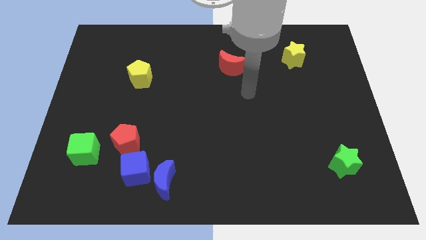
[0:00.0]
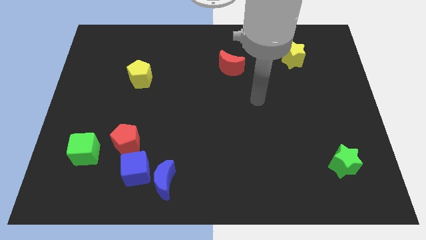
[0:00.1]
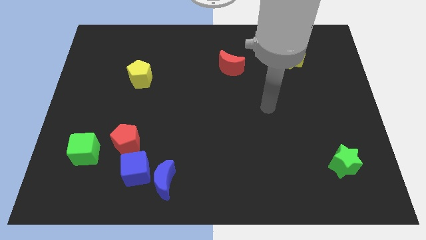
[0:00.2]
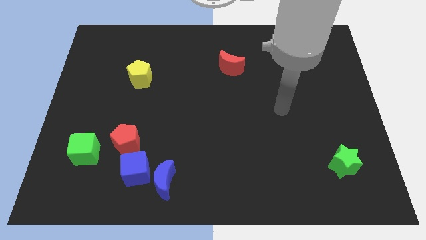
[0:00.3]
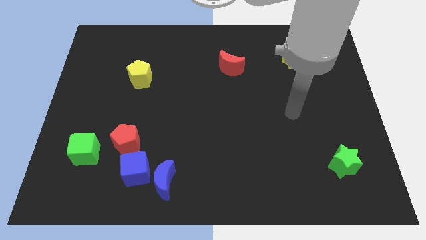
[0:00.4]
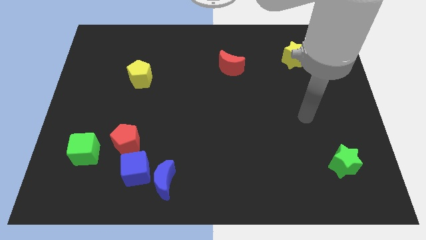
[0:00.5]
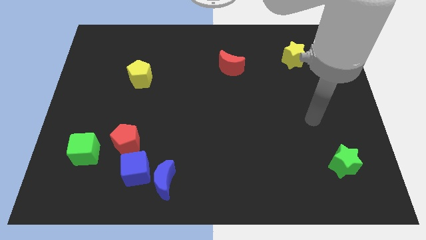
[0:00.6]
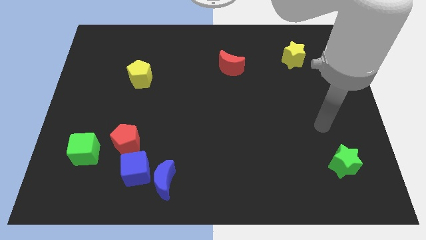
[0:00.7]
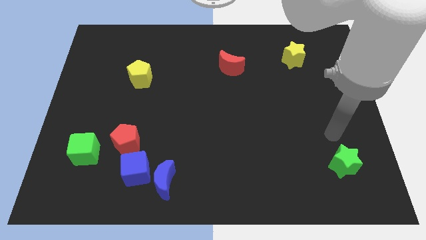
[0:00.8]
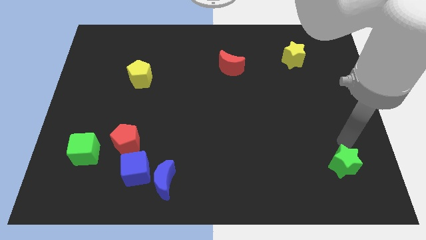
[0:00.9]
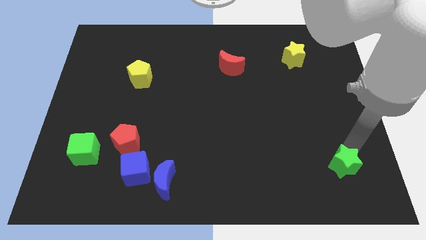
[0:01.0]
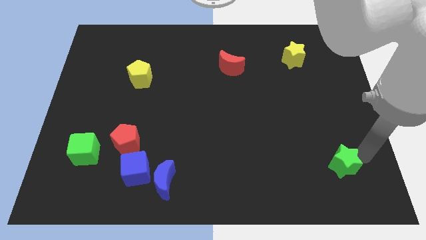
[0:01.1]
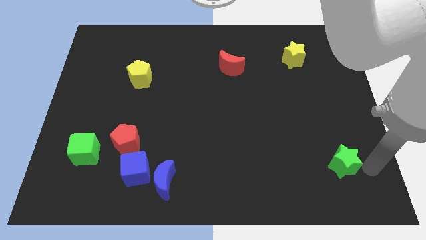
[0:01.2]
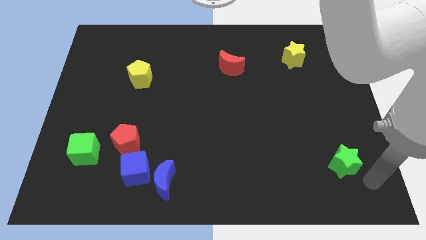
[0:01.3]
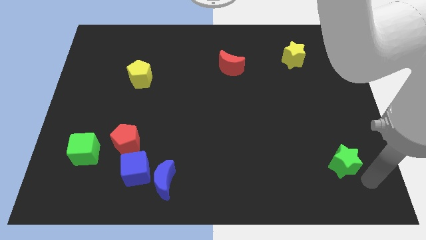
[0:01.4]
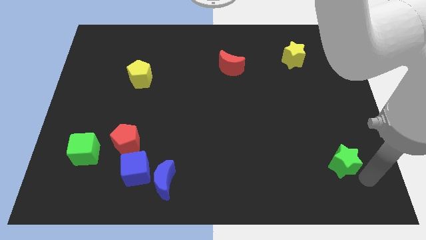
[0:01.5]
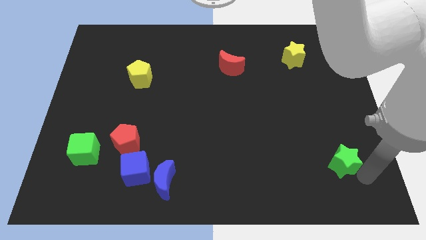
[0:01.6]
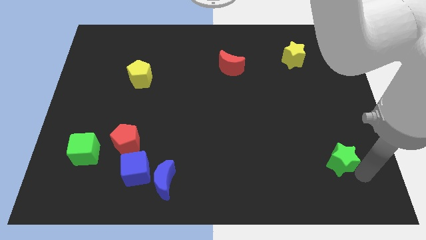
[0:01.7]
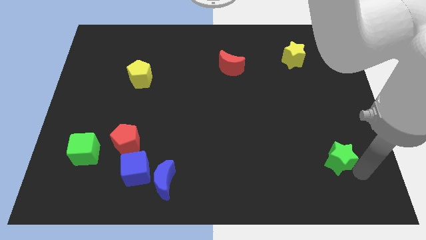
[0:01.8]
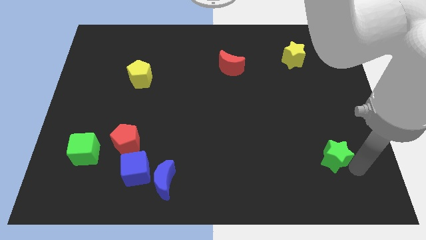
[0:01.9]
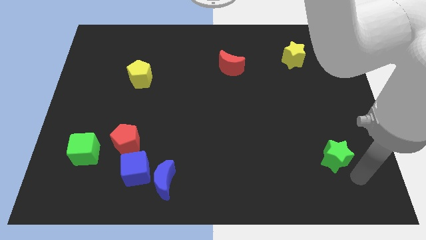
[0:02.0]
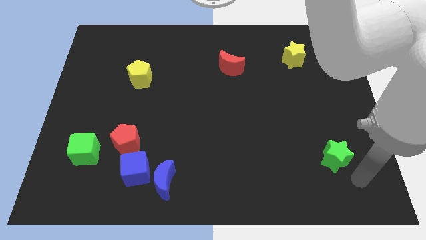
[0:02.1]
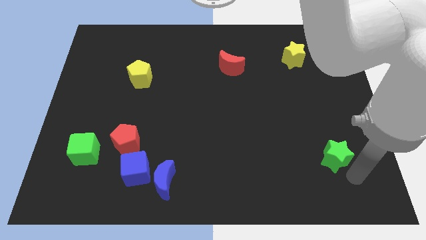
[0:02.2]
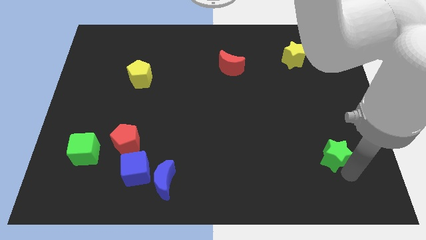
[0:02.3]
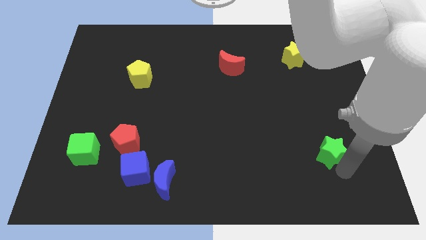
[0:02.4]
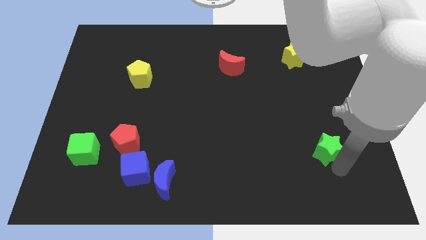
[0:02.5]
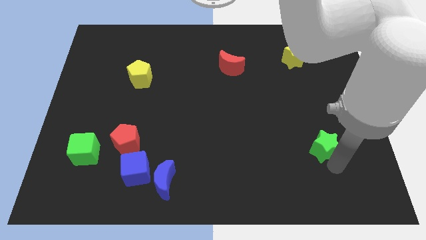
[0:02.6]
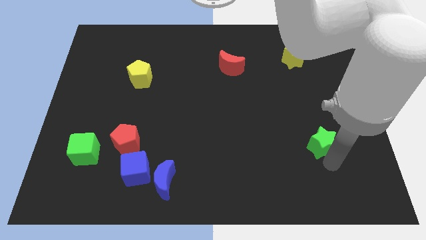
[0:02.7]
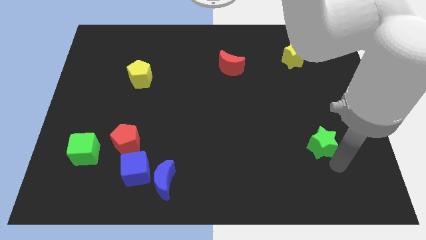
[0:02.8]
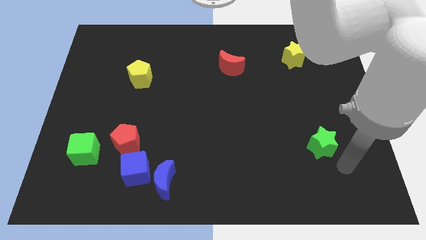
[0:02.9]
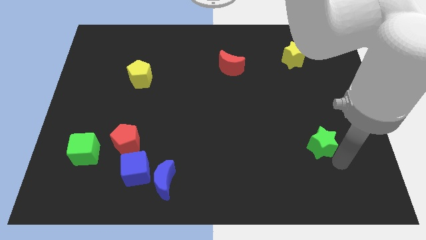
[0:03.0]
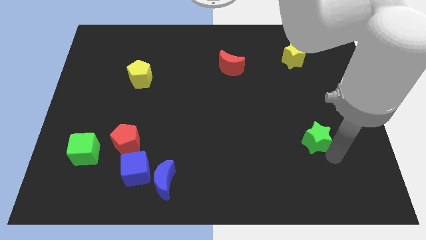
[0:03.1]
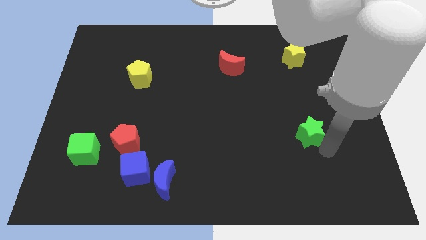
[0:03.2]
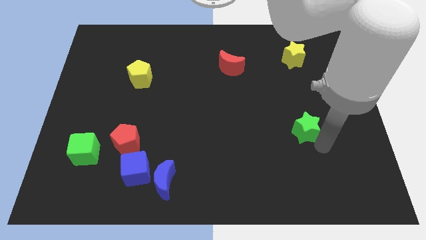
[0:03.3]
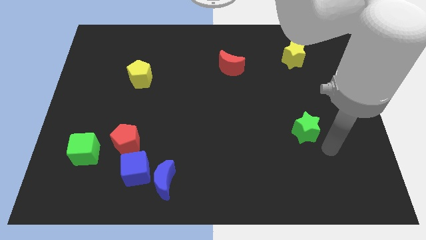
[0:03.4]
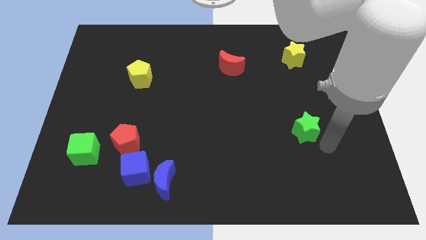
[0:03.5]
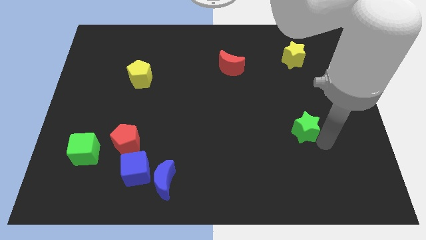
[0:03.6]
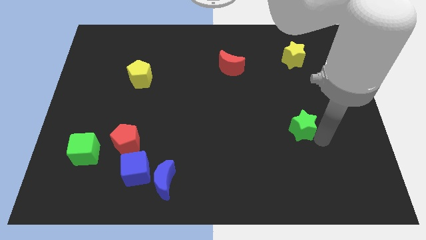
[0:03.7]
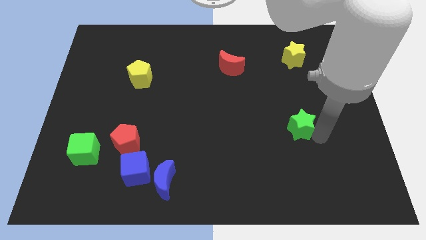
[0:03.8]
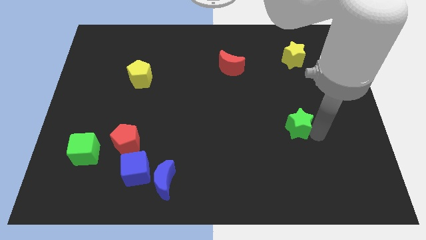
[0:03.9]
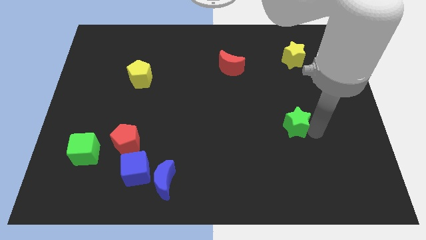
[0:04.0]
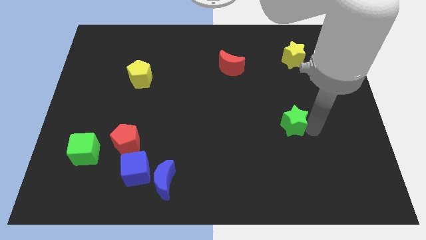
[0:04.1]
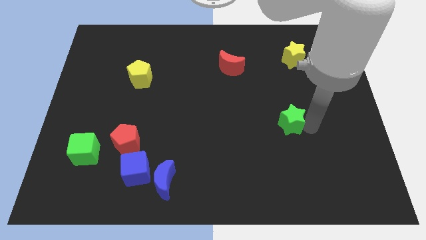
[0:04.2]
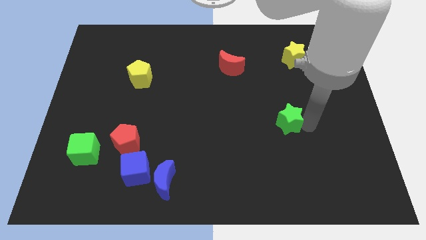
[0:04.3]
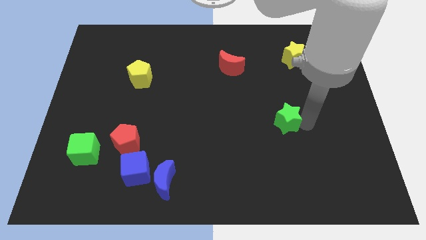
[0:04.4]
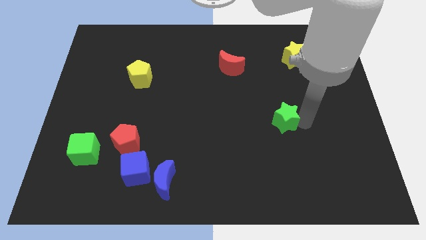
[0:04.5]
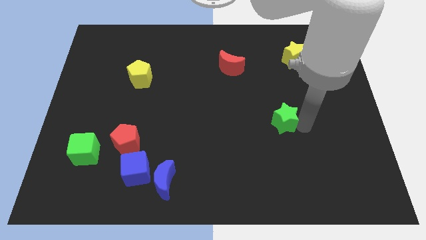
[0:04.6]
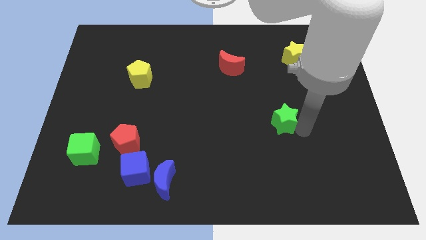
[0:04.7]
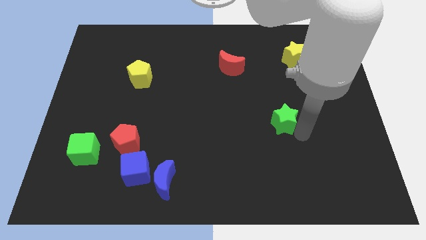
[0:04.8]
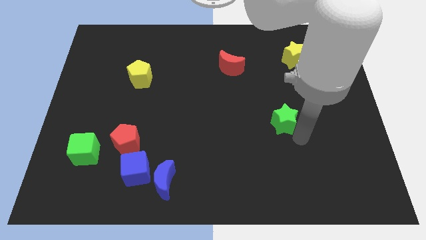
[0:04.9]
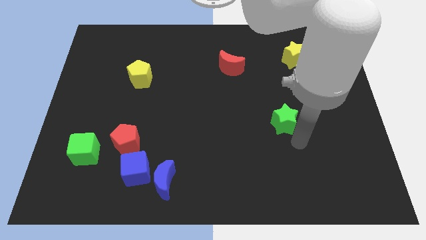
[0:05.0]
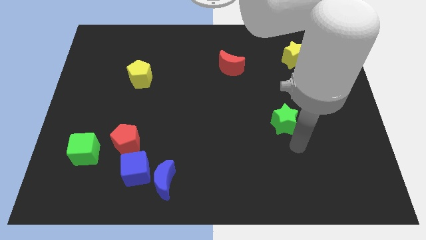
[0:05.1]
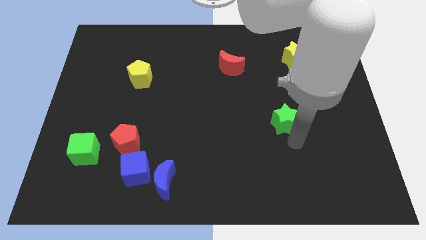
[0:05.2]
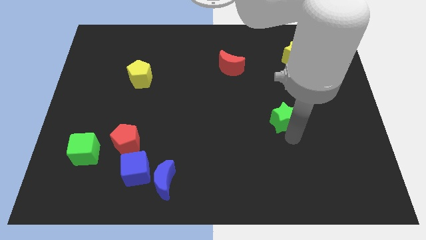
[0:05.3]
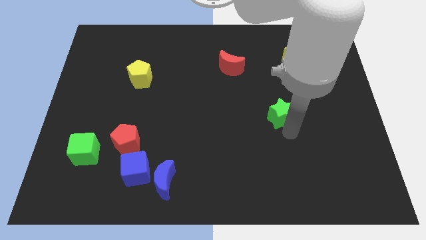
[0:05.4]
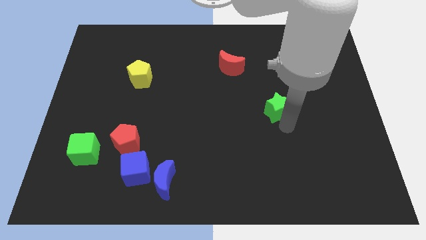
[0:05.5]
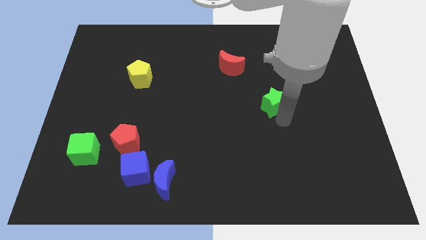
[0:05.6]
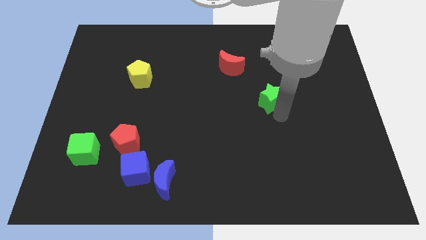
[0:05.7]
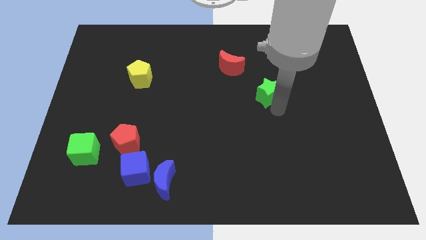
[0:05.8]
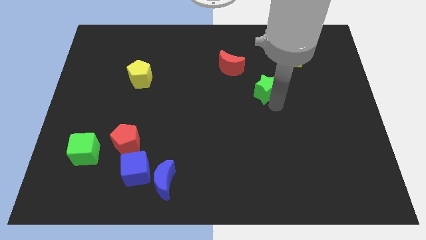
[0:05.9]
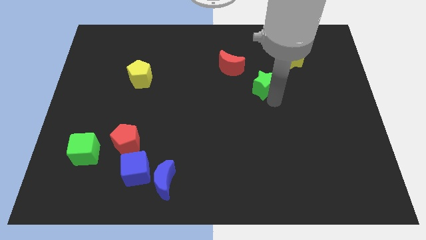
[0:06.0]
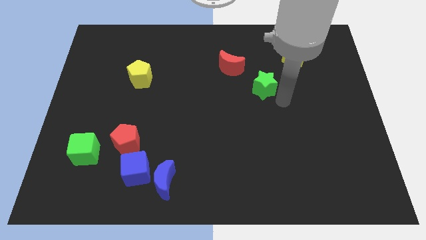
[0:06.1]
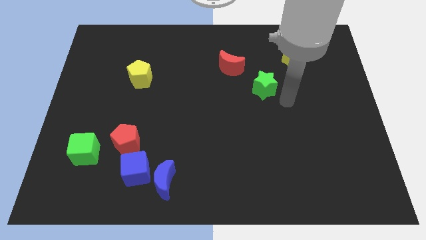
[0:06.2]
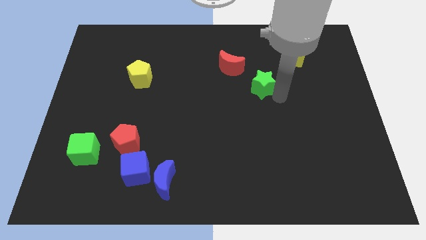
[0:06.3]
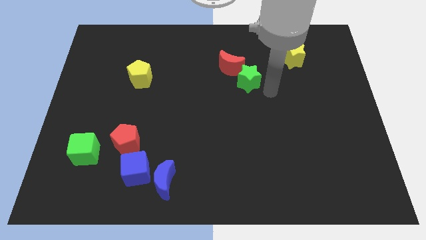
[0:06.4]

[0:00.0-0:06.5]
put the green star to the red moon

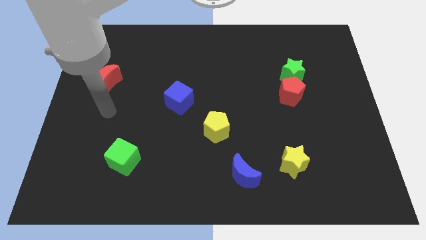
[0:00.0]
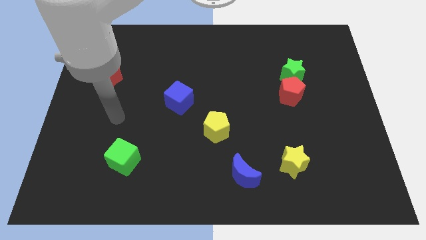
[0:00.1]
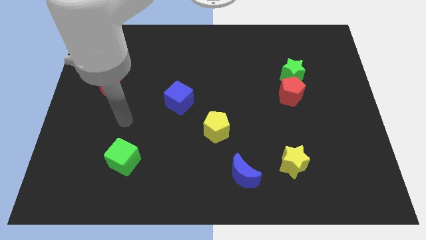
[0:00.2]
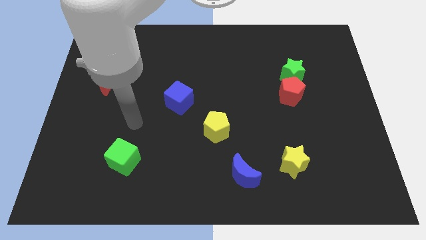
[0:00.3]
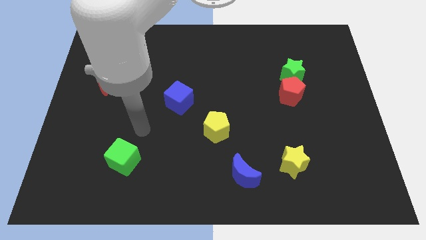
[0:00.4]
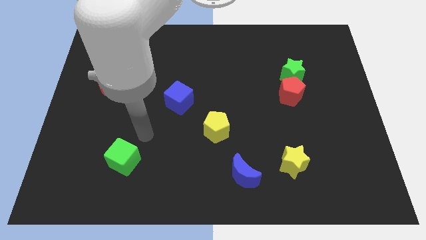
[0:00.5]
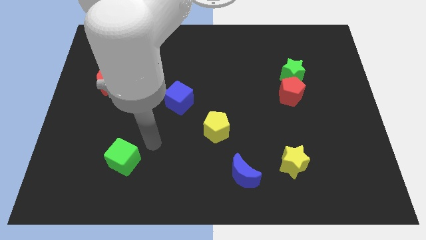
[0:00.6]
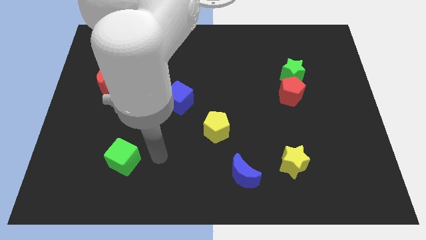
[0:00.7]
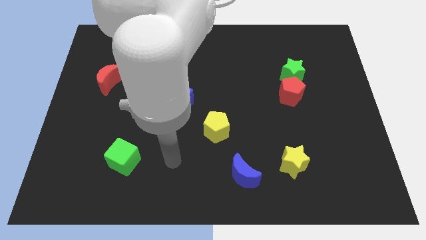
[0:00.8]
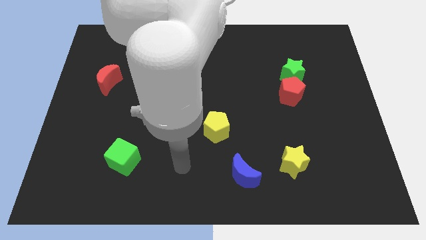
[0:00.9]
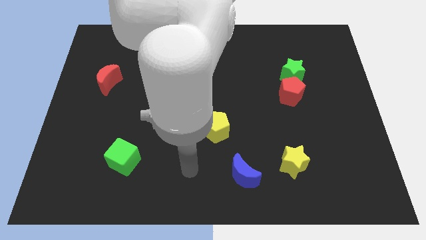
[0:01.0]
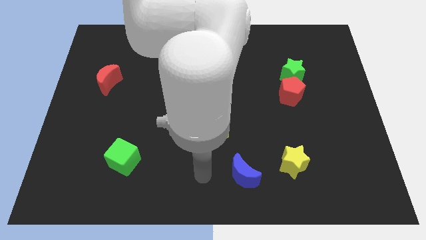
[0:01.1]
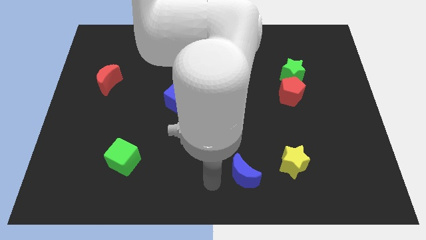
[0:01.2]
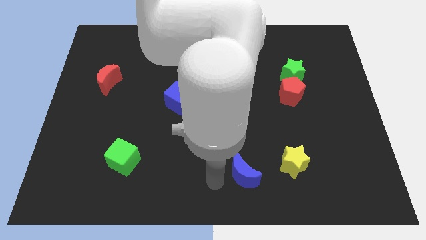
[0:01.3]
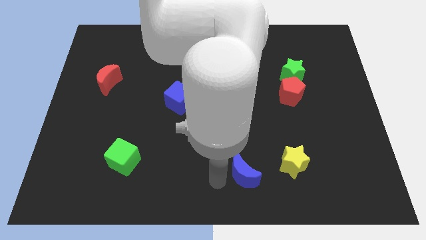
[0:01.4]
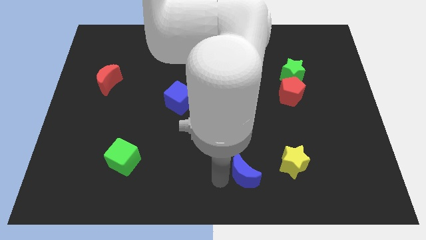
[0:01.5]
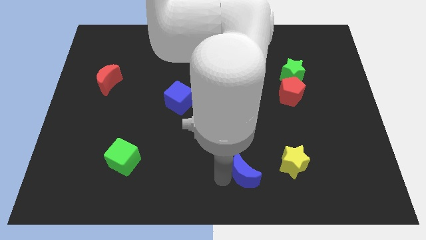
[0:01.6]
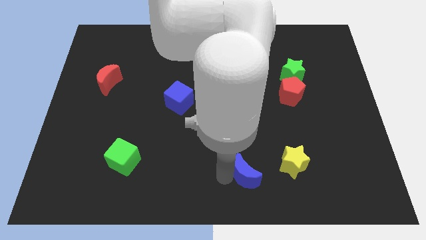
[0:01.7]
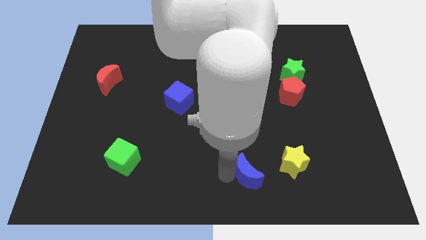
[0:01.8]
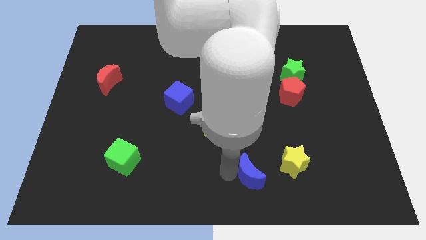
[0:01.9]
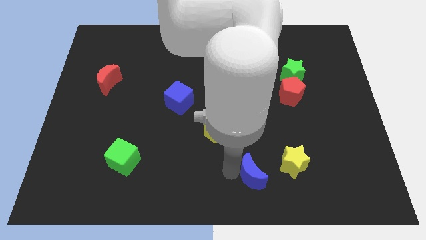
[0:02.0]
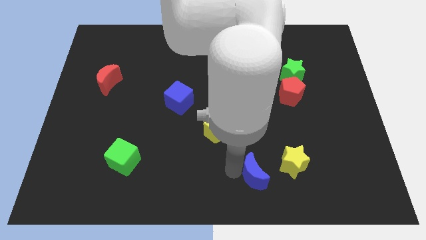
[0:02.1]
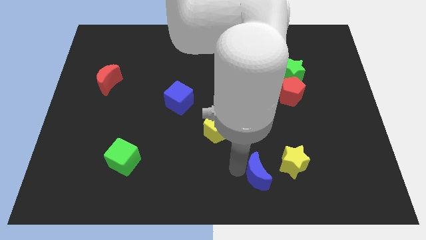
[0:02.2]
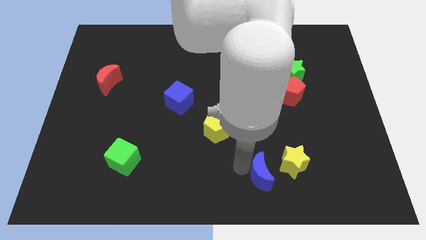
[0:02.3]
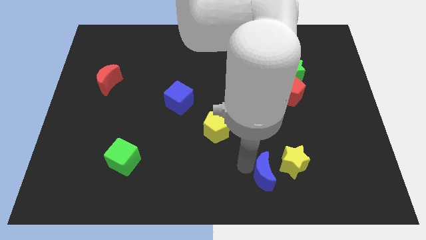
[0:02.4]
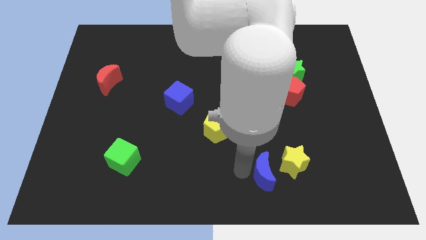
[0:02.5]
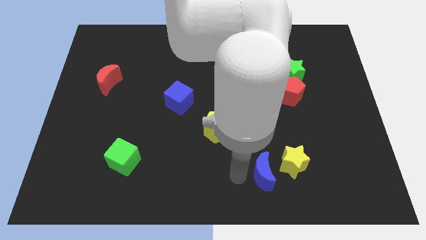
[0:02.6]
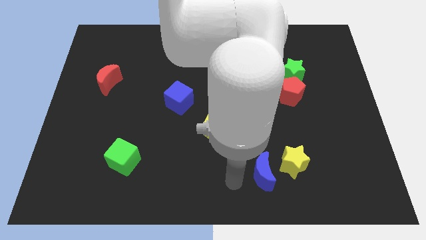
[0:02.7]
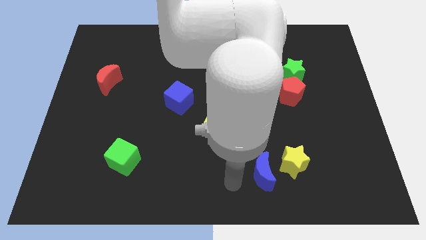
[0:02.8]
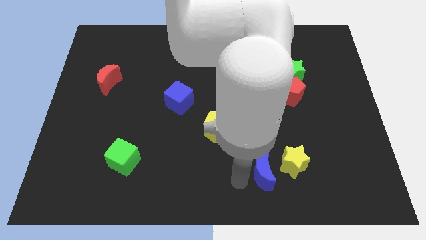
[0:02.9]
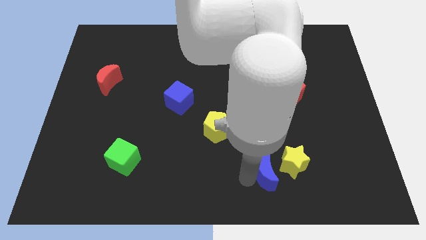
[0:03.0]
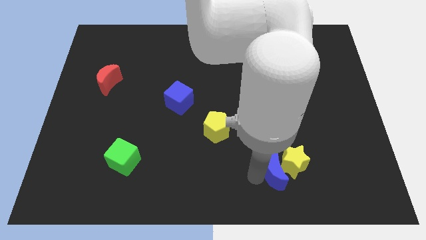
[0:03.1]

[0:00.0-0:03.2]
move the blue moon next to the yellow star
